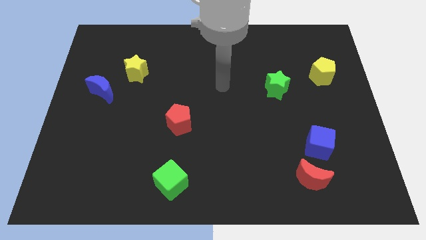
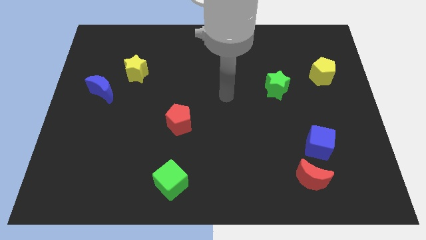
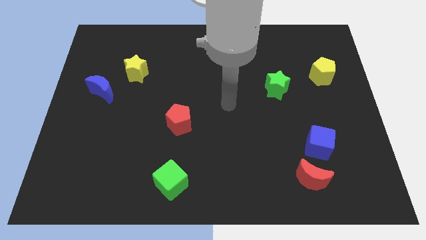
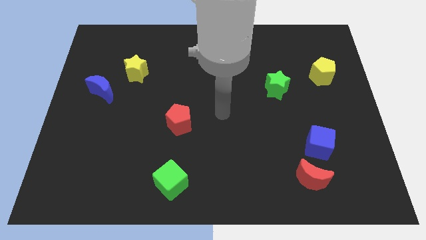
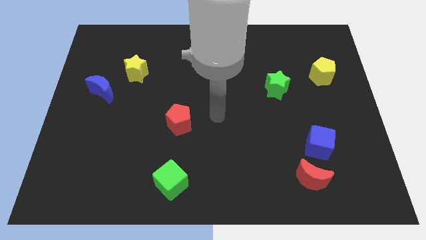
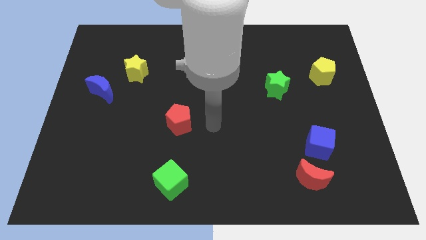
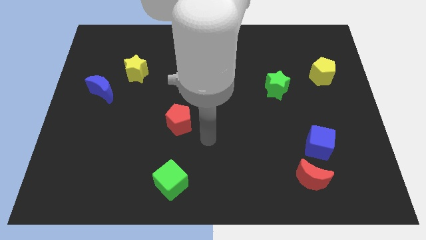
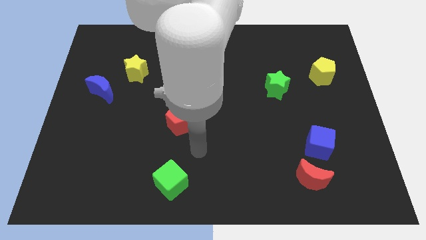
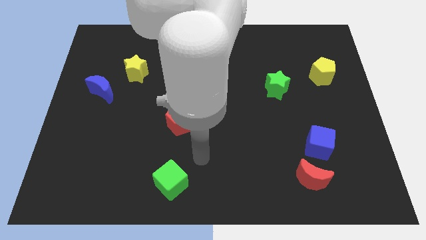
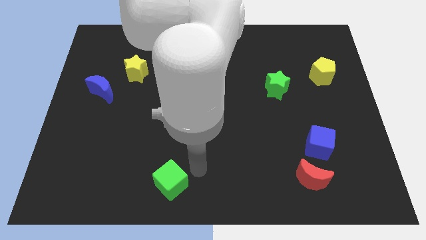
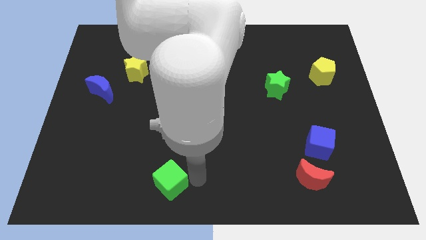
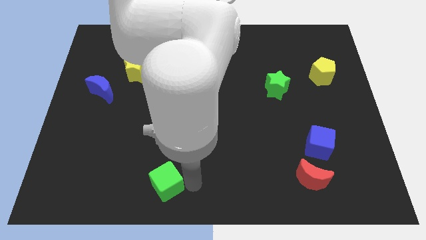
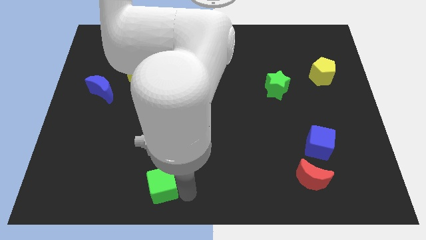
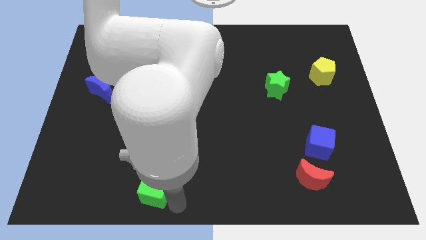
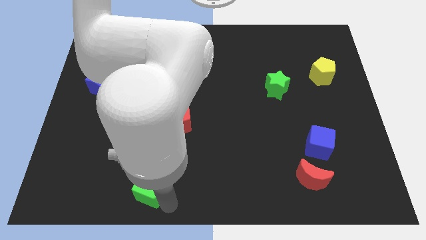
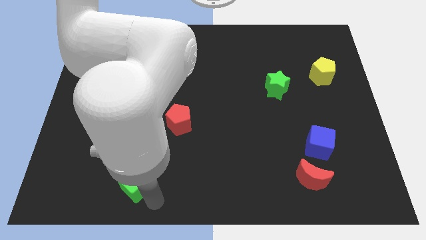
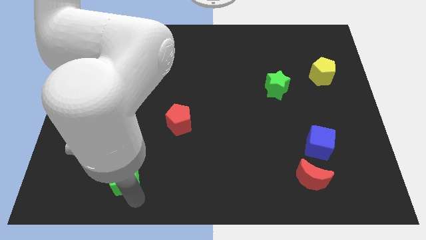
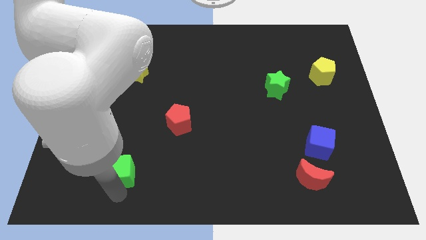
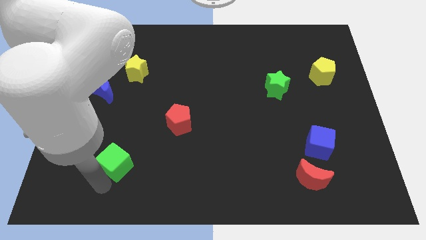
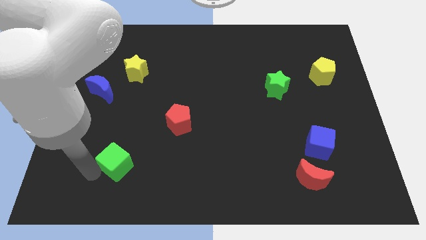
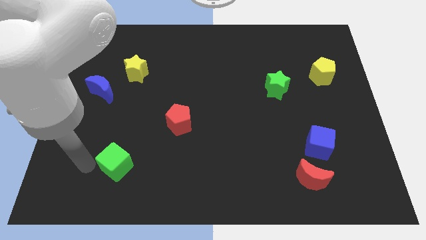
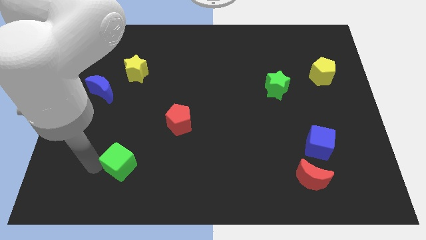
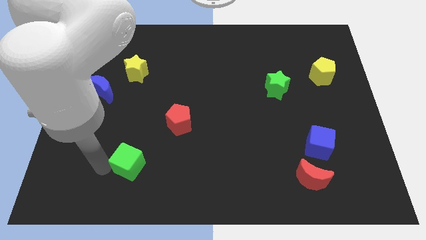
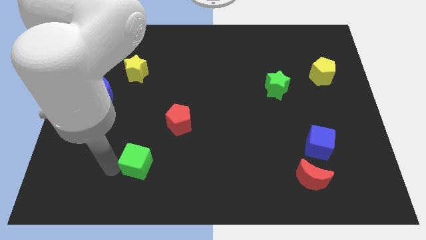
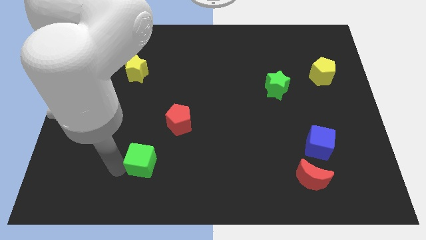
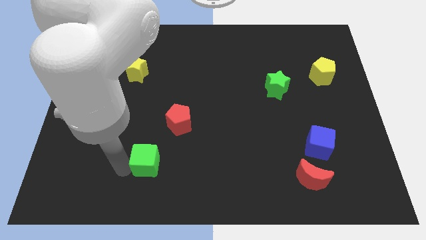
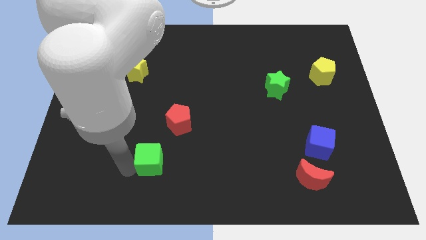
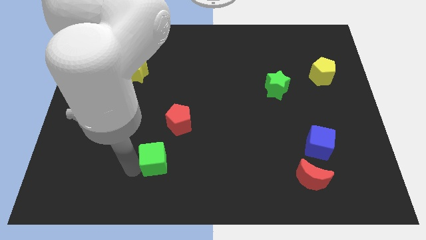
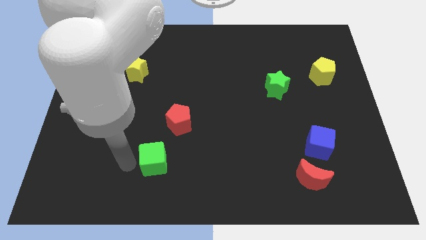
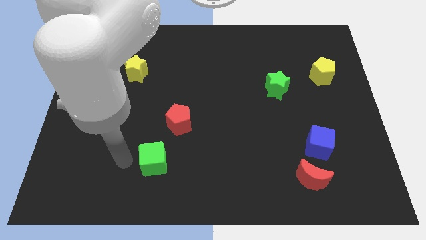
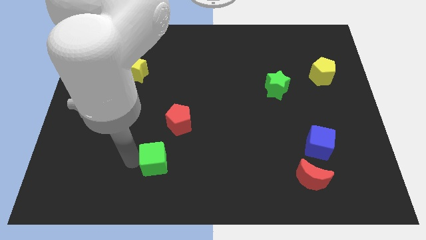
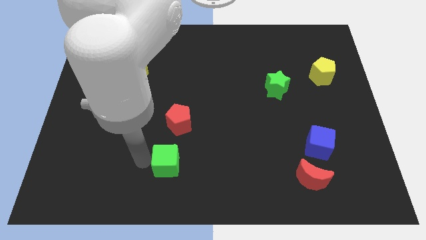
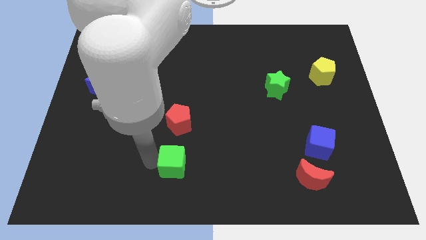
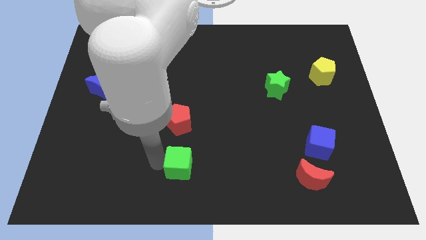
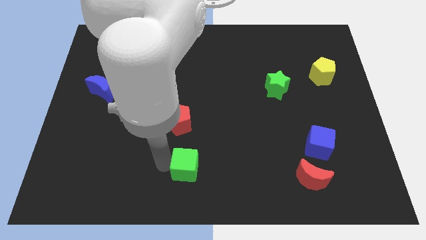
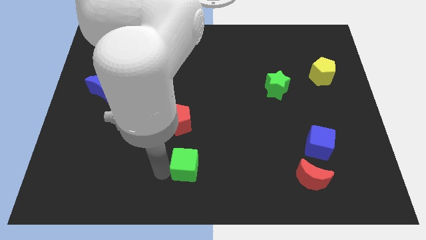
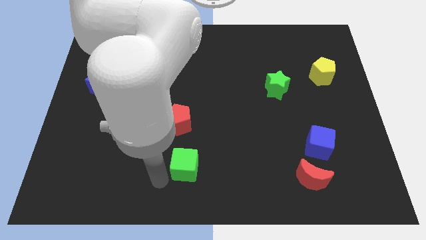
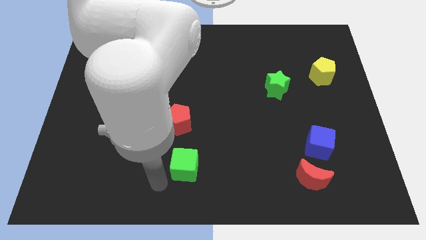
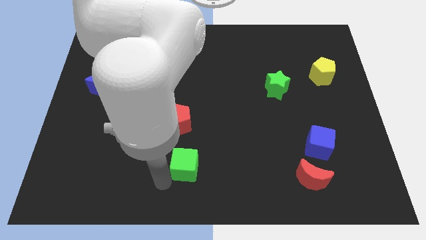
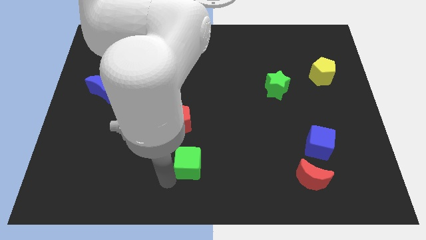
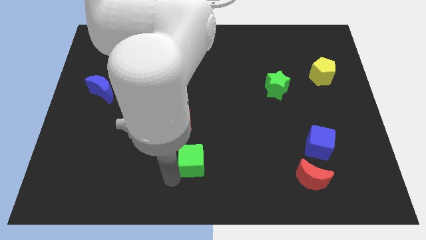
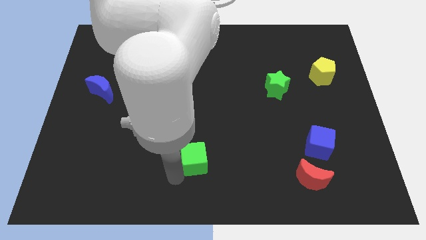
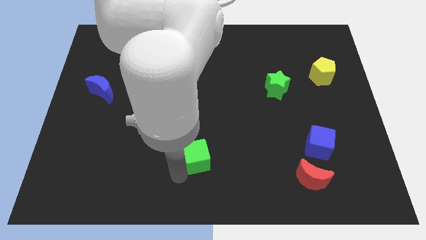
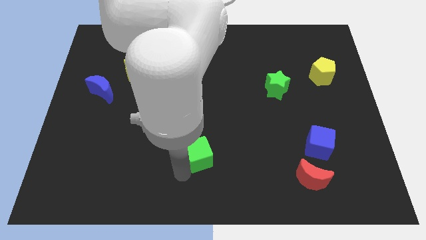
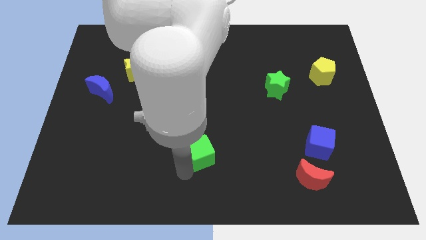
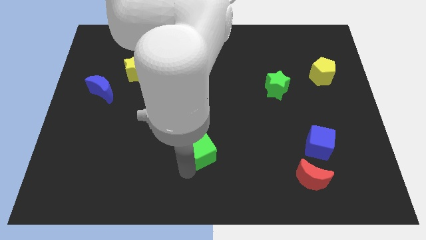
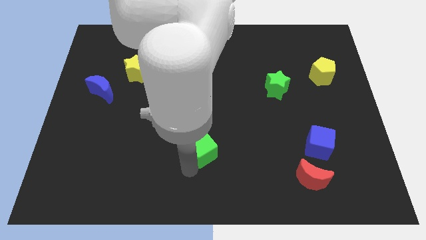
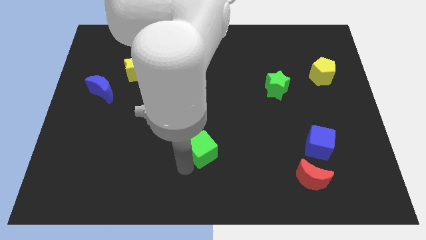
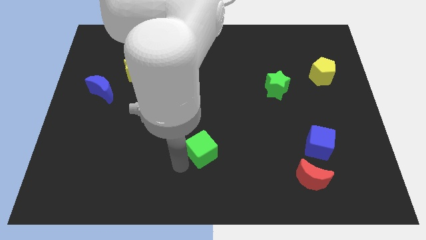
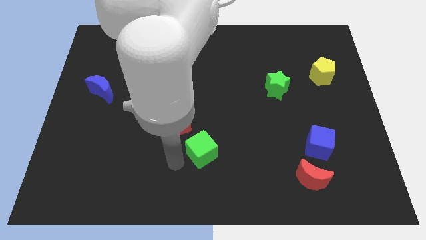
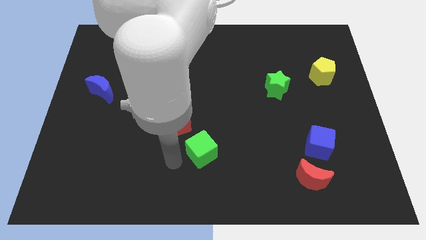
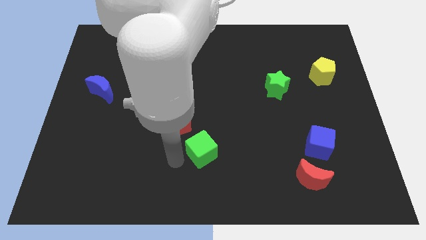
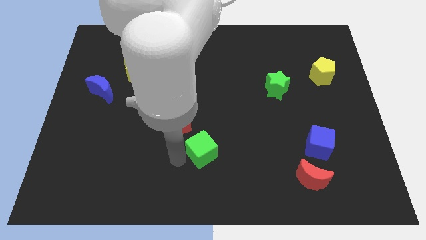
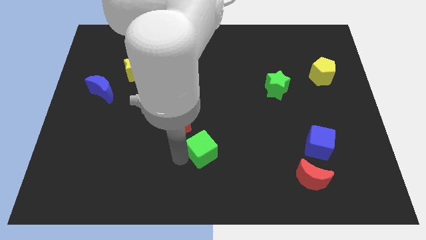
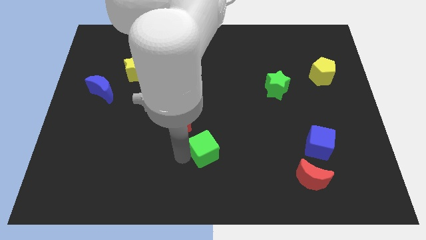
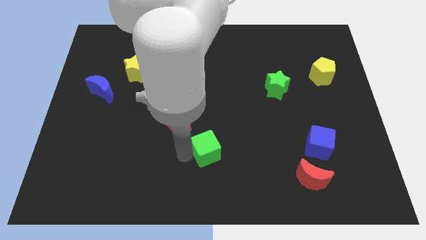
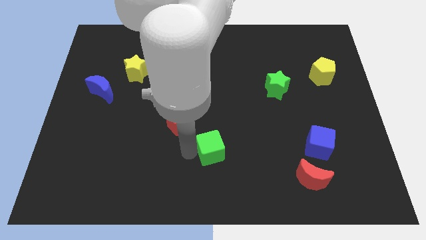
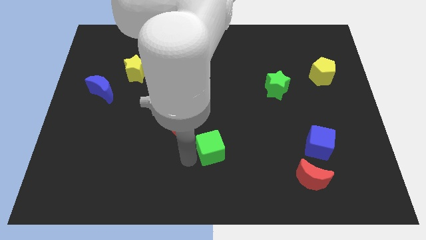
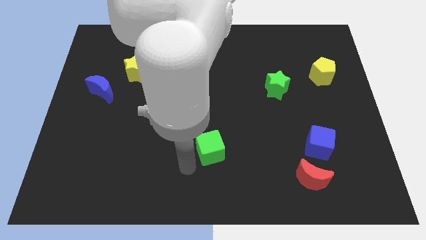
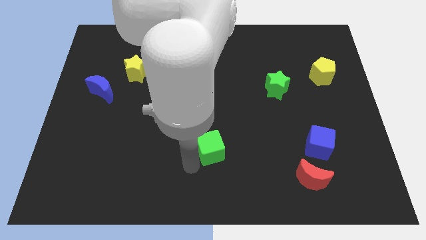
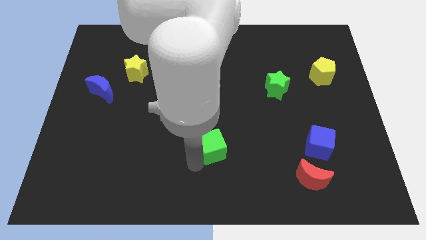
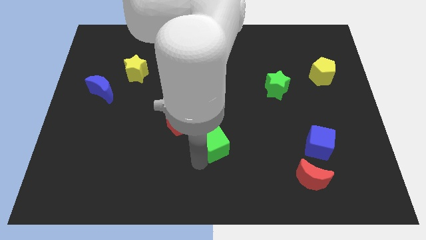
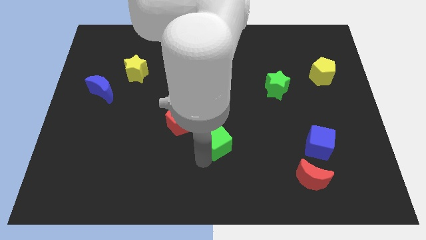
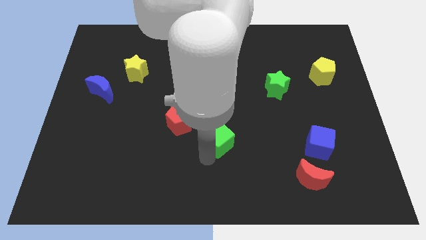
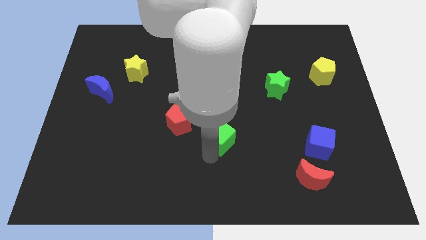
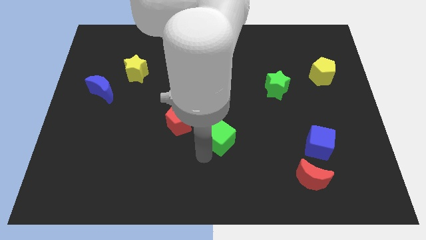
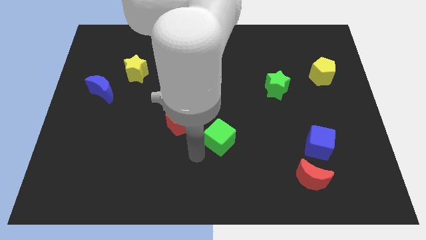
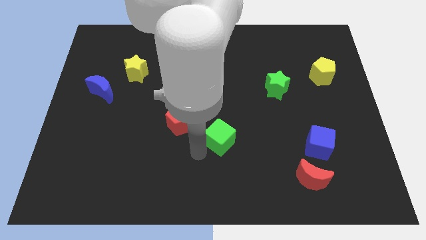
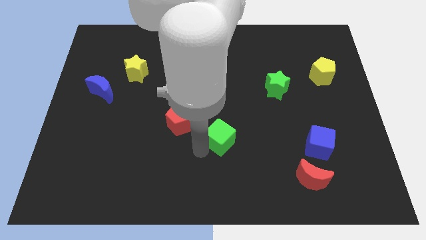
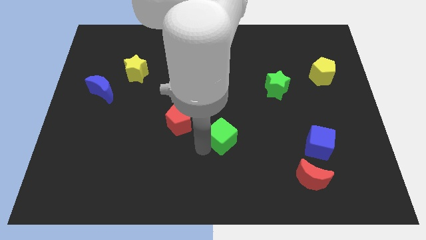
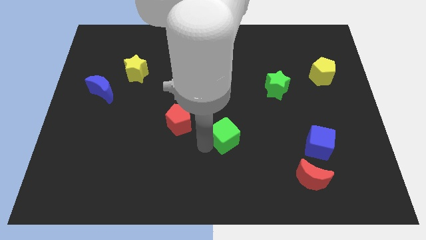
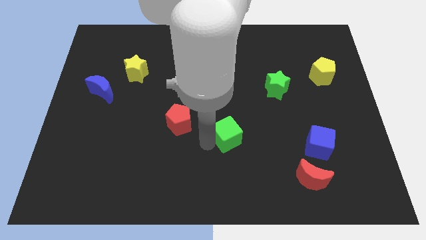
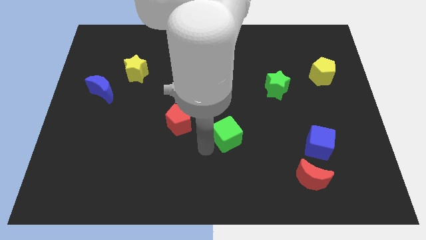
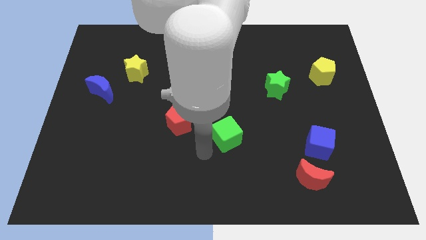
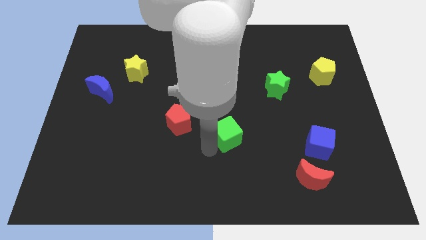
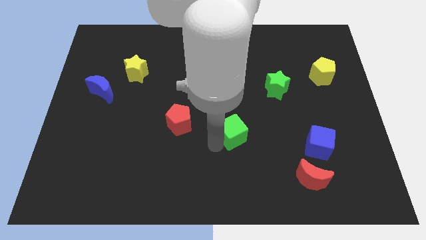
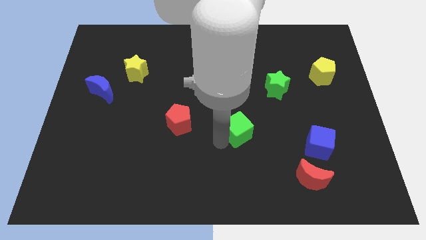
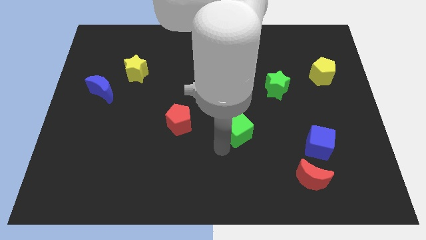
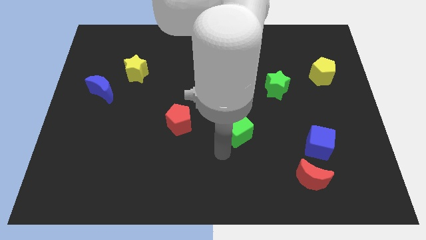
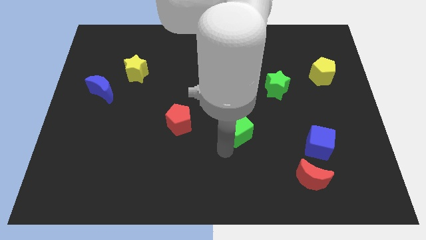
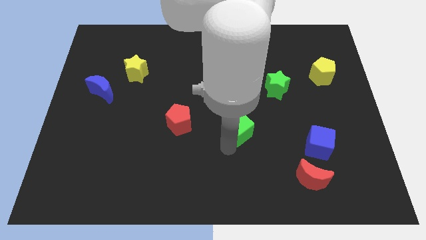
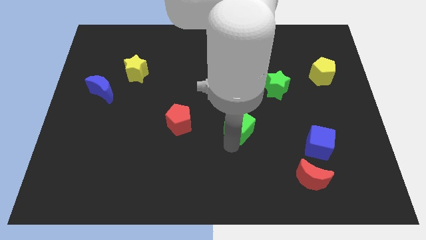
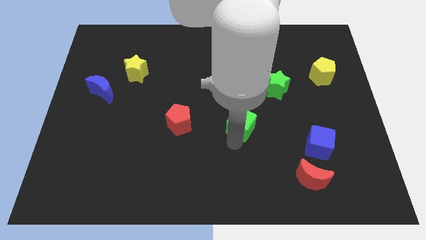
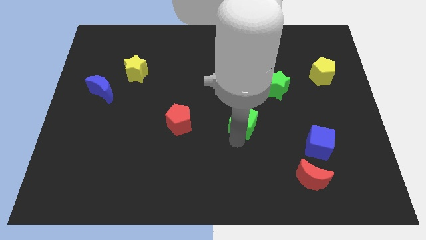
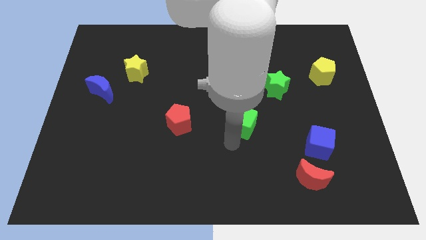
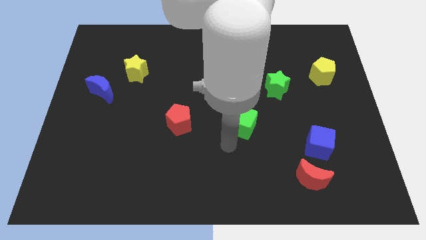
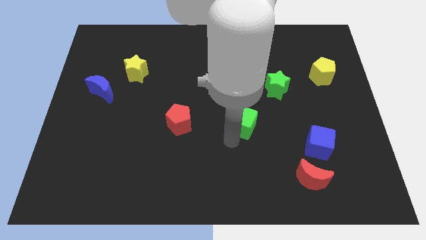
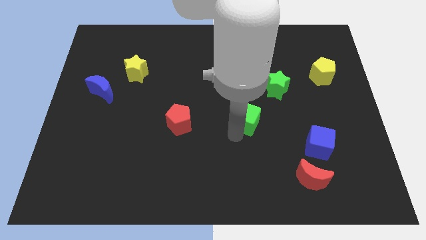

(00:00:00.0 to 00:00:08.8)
push the green cube diagonally down and to the left of the green star
